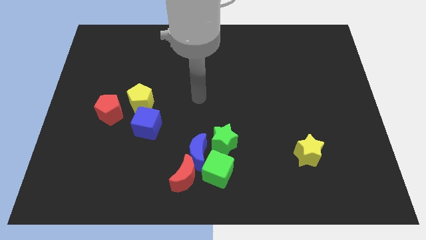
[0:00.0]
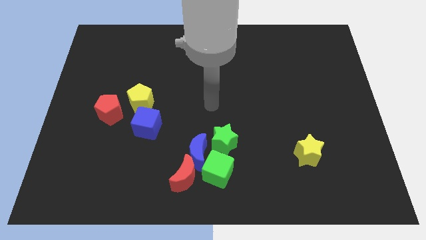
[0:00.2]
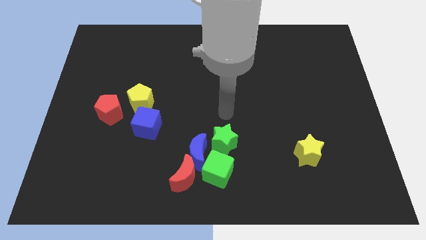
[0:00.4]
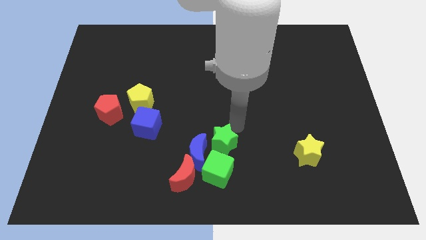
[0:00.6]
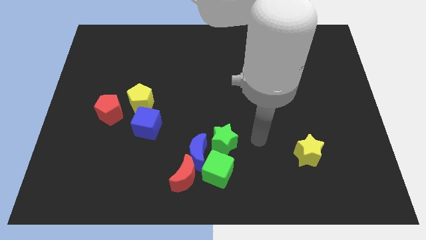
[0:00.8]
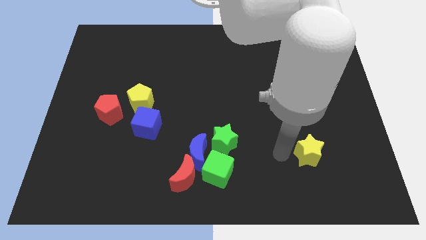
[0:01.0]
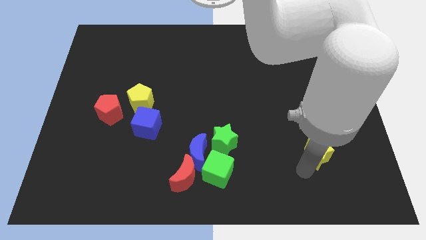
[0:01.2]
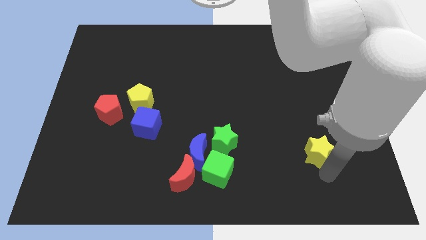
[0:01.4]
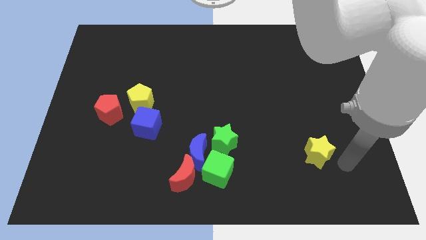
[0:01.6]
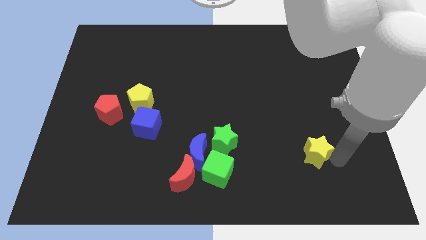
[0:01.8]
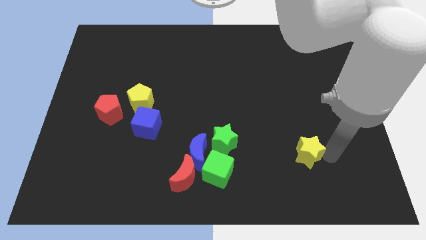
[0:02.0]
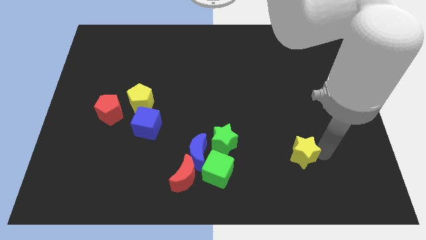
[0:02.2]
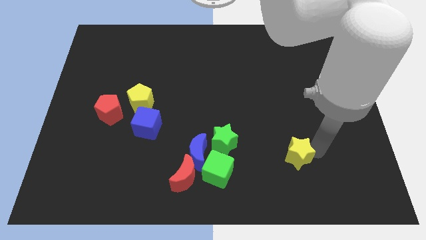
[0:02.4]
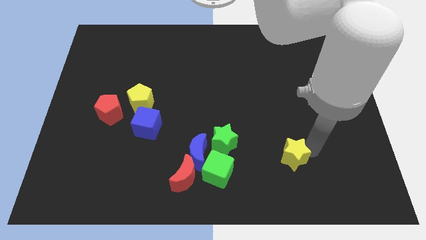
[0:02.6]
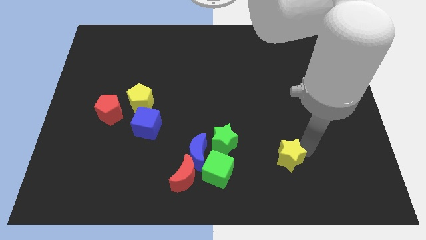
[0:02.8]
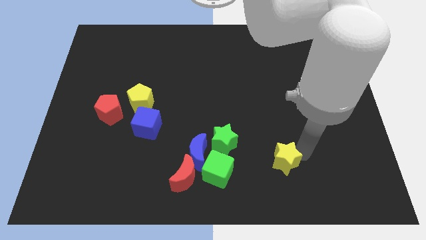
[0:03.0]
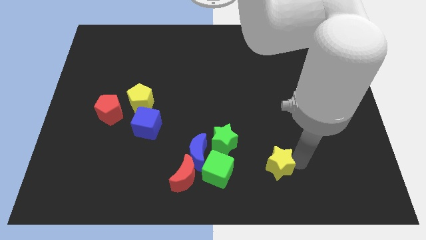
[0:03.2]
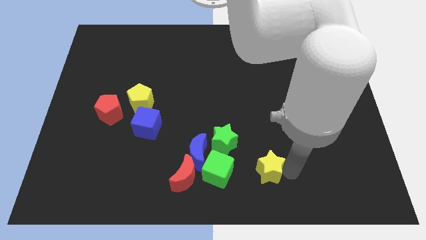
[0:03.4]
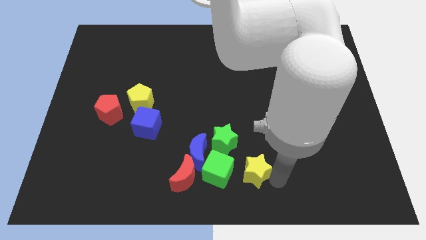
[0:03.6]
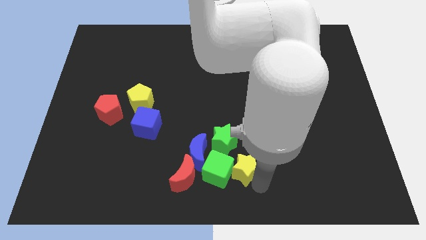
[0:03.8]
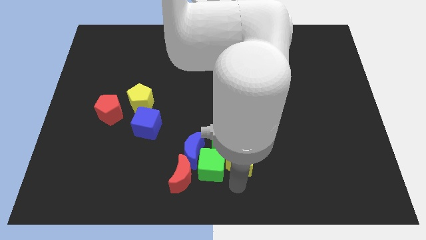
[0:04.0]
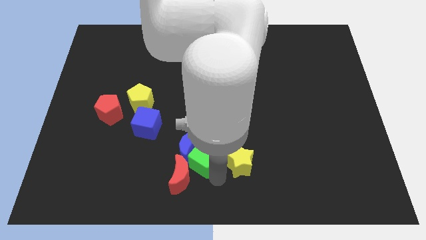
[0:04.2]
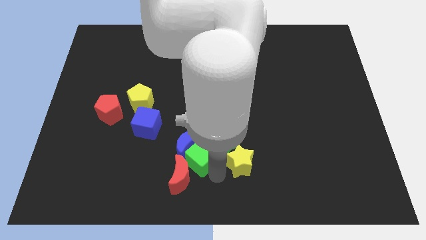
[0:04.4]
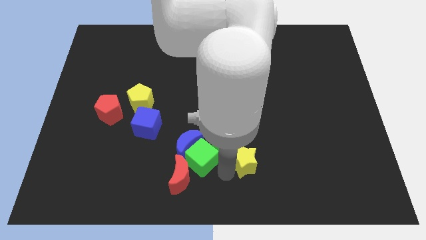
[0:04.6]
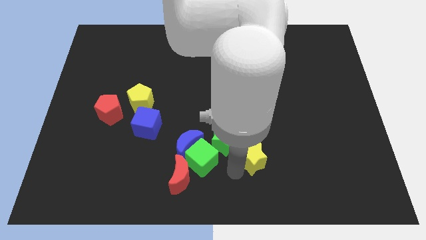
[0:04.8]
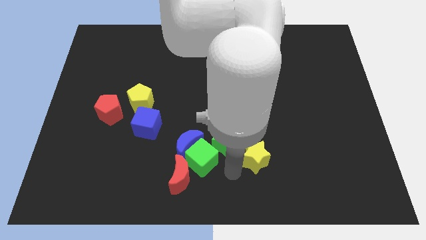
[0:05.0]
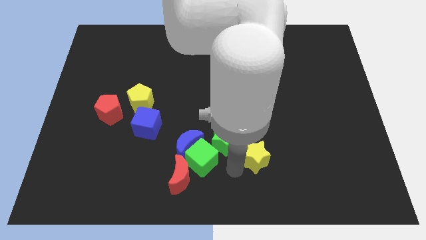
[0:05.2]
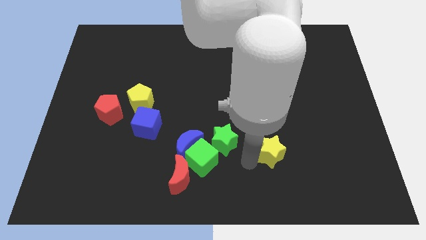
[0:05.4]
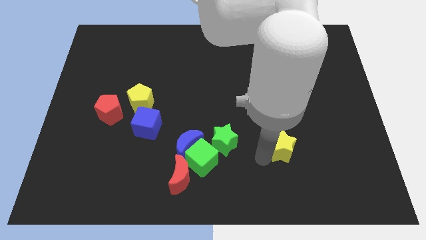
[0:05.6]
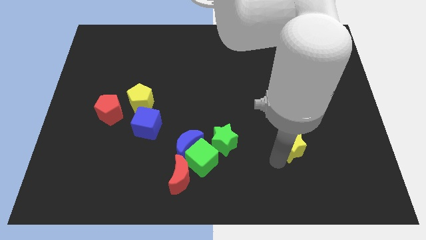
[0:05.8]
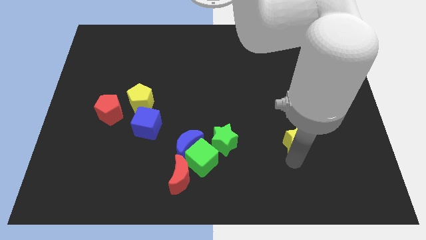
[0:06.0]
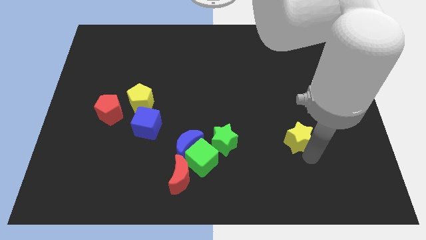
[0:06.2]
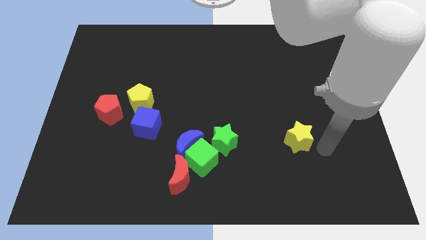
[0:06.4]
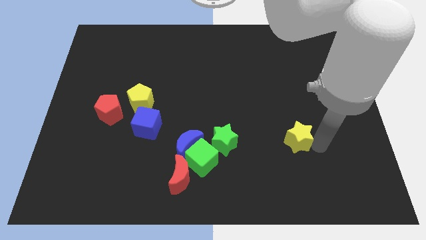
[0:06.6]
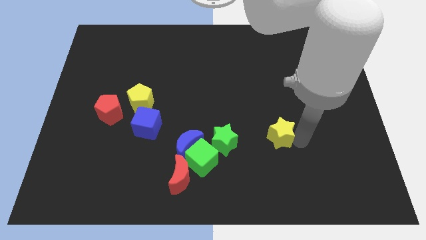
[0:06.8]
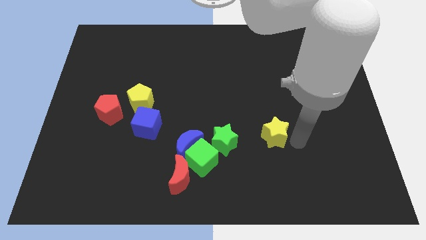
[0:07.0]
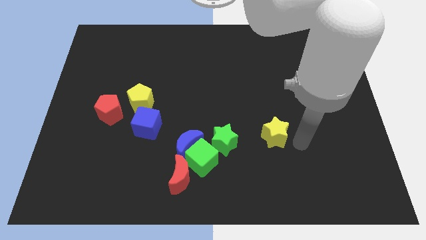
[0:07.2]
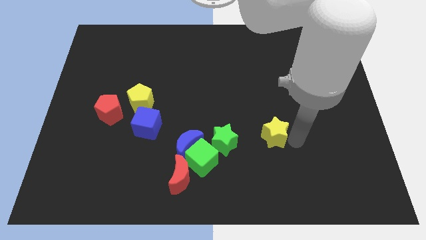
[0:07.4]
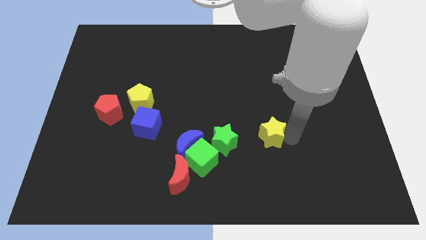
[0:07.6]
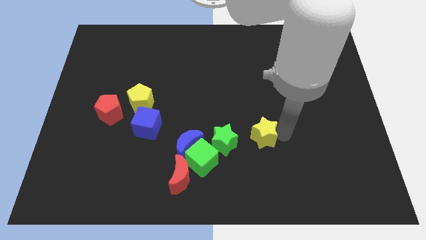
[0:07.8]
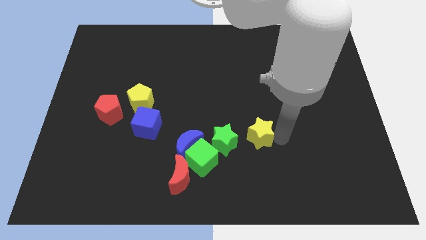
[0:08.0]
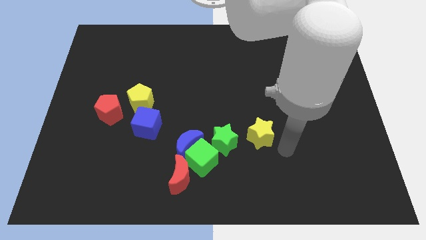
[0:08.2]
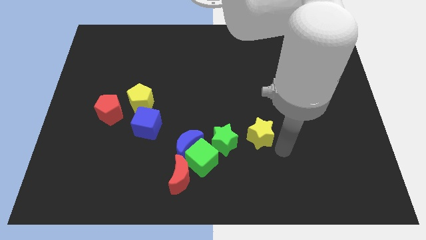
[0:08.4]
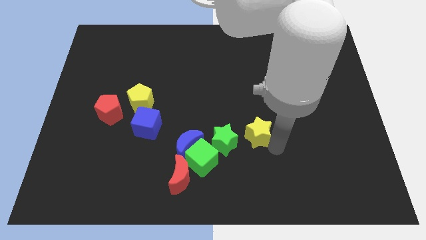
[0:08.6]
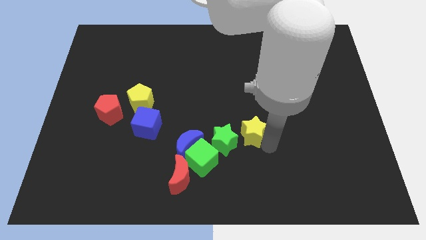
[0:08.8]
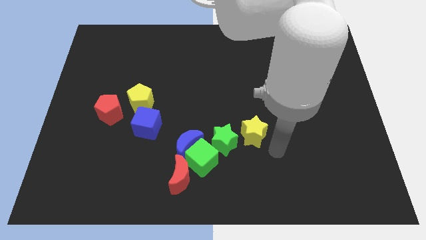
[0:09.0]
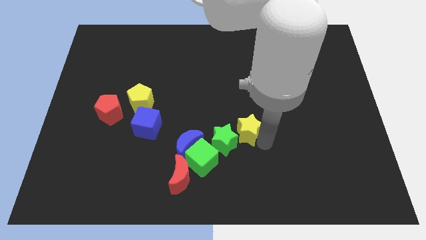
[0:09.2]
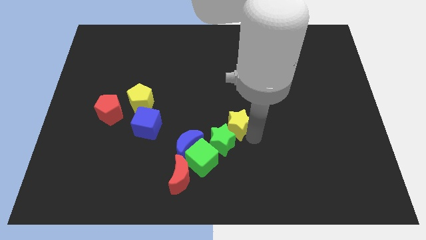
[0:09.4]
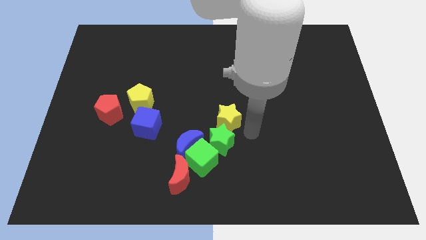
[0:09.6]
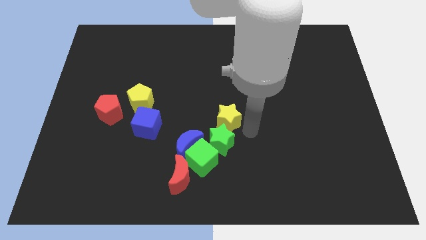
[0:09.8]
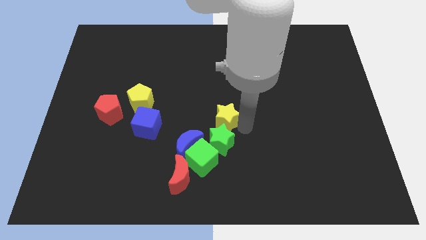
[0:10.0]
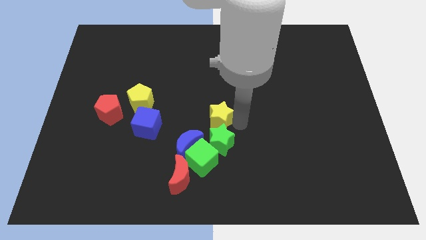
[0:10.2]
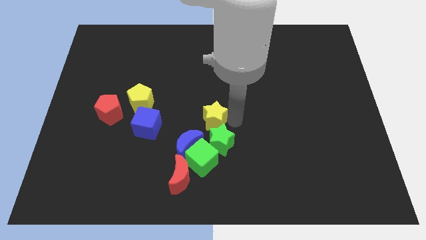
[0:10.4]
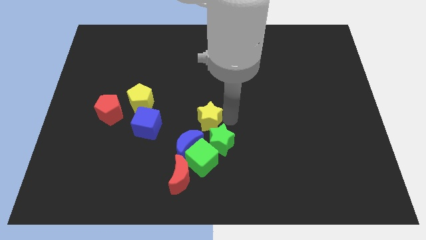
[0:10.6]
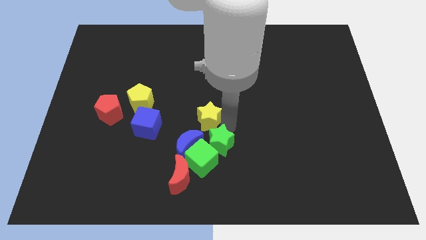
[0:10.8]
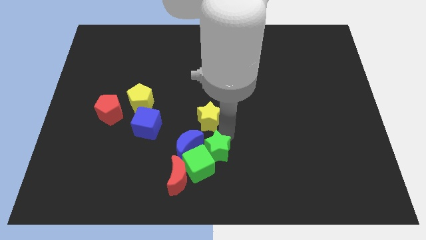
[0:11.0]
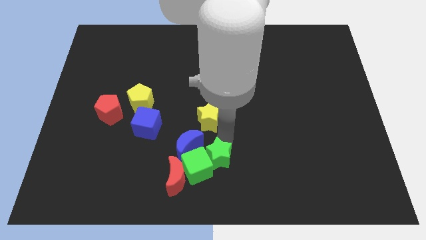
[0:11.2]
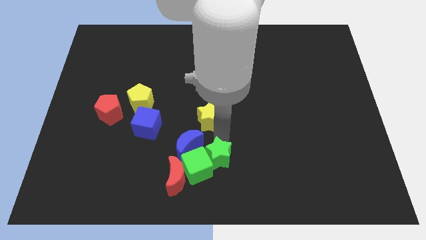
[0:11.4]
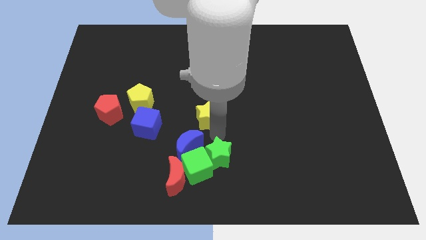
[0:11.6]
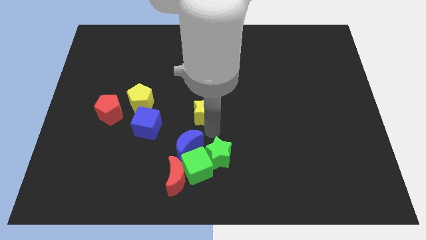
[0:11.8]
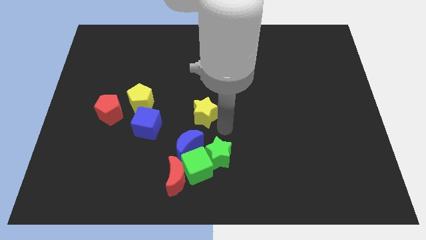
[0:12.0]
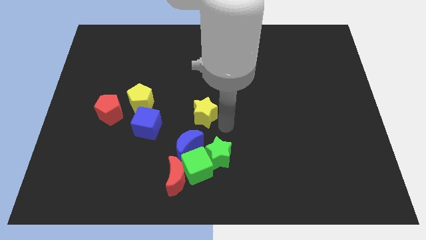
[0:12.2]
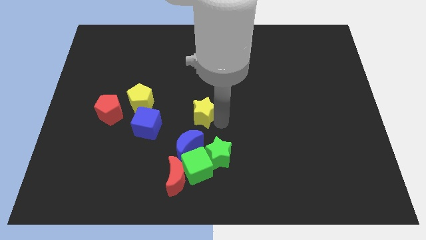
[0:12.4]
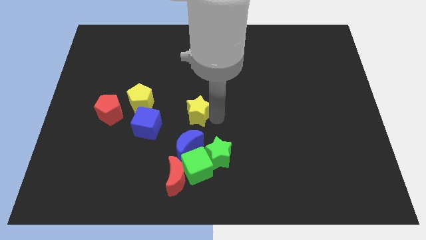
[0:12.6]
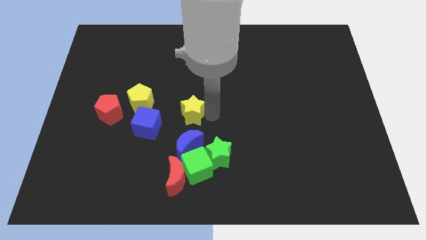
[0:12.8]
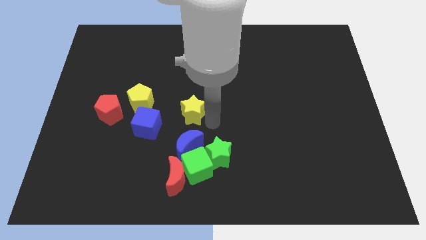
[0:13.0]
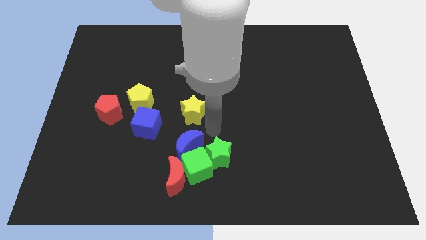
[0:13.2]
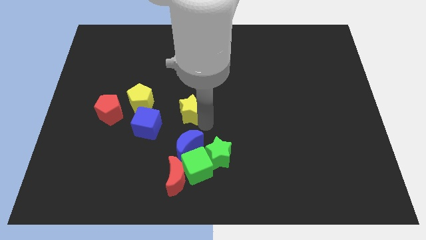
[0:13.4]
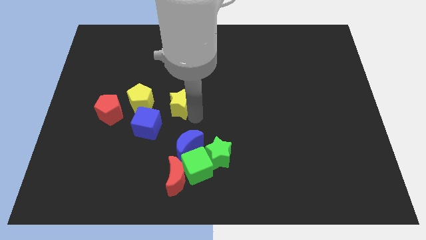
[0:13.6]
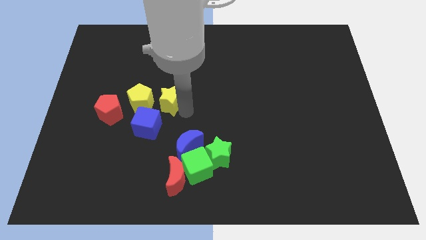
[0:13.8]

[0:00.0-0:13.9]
put the yellow star to the top side of the blue cube
